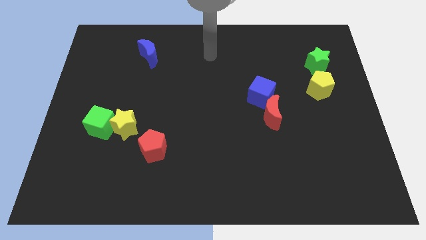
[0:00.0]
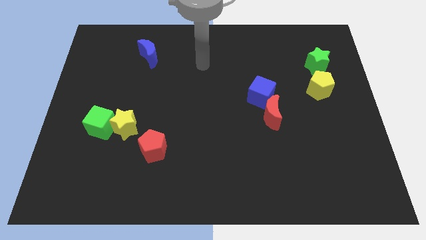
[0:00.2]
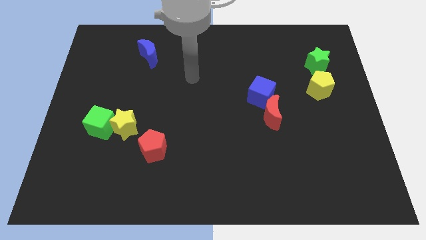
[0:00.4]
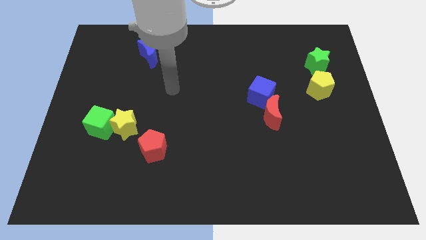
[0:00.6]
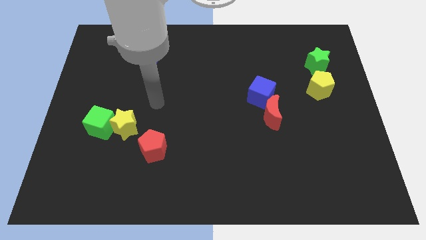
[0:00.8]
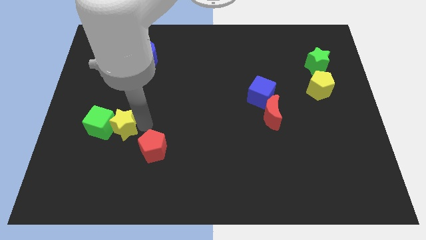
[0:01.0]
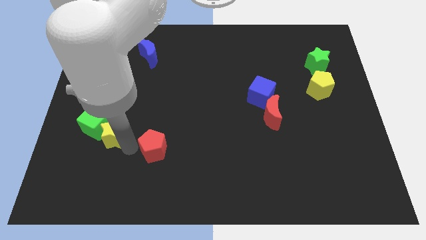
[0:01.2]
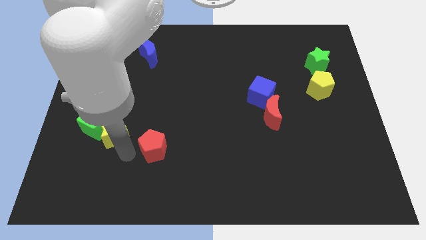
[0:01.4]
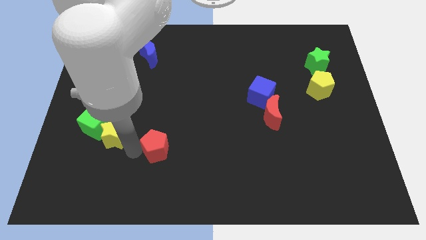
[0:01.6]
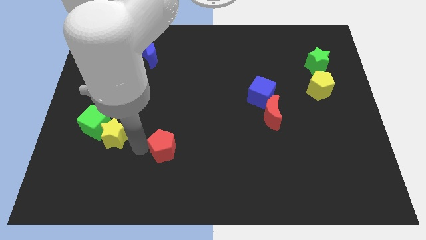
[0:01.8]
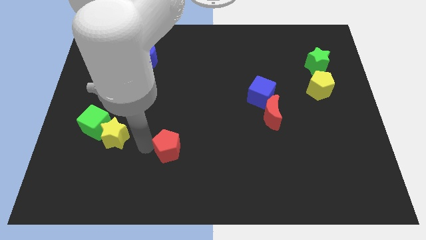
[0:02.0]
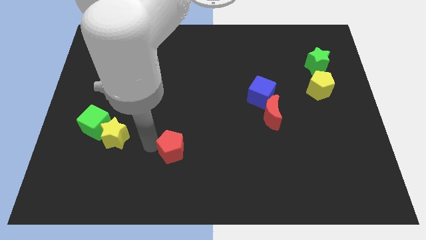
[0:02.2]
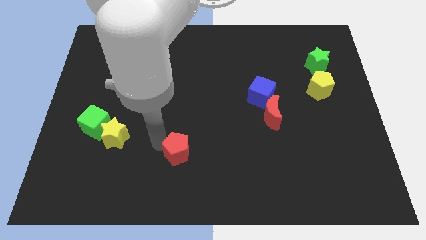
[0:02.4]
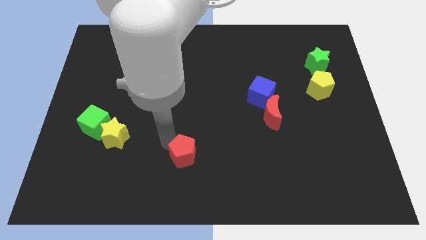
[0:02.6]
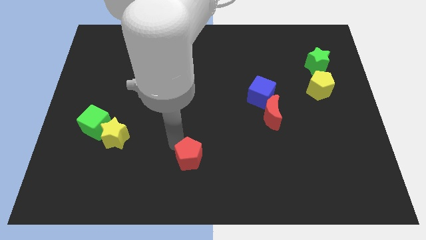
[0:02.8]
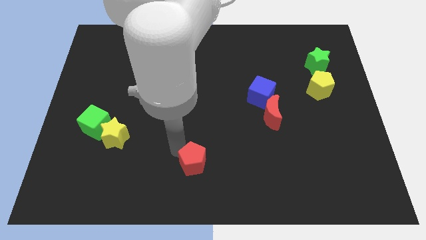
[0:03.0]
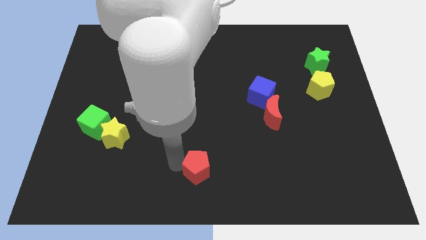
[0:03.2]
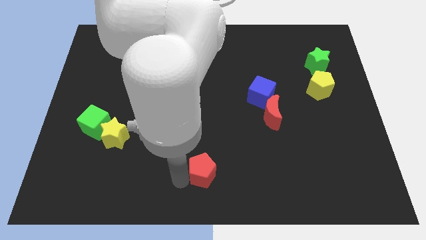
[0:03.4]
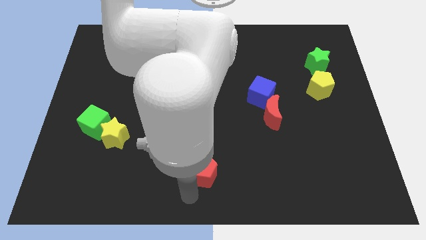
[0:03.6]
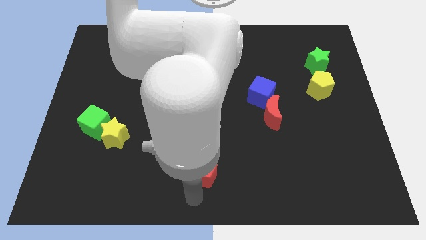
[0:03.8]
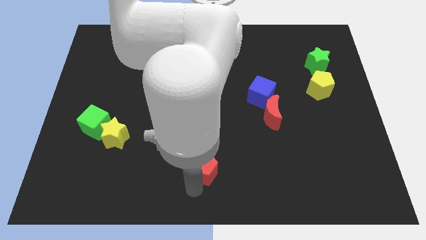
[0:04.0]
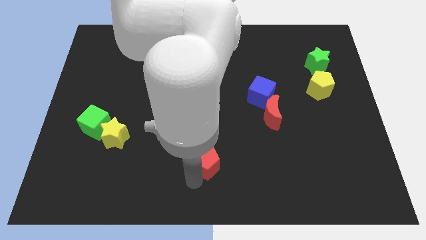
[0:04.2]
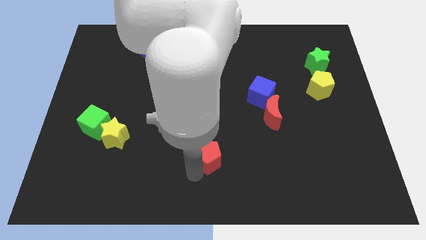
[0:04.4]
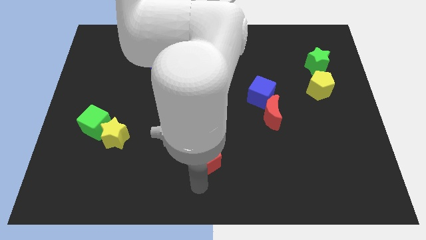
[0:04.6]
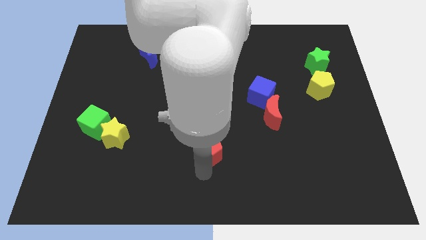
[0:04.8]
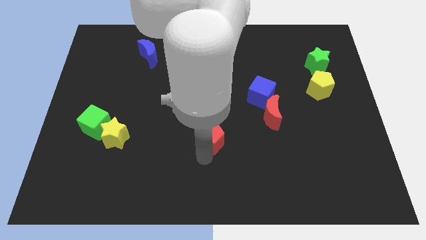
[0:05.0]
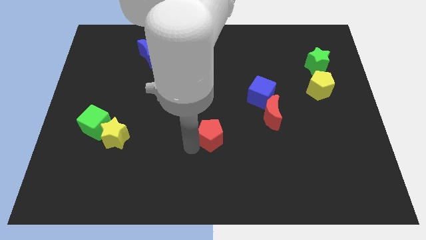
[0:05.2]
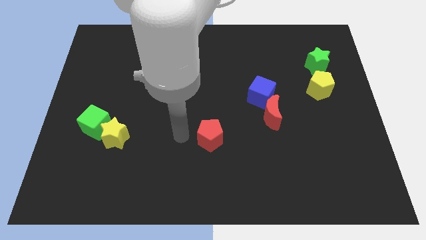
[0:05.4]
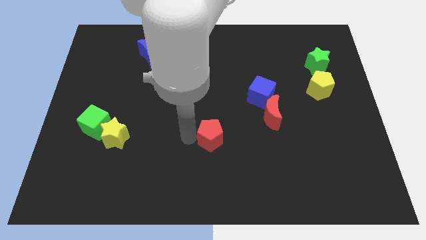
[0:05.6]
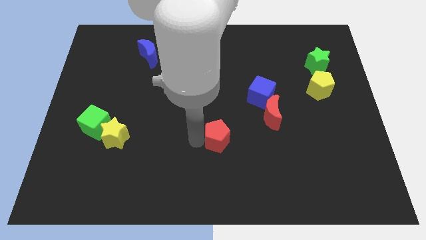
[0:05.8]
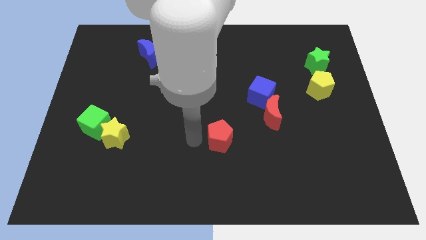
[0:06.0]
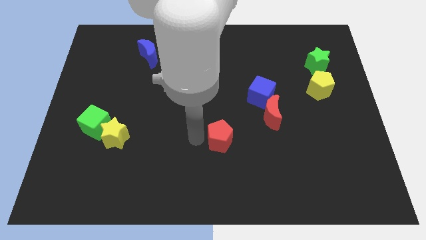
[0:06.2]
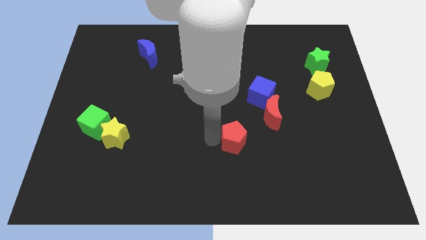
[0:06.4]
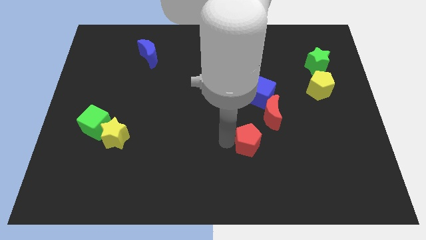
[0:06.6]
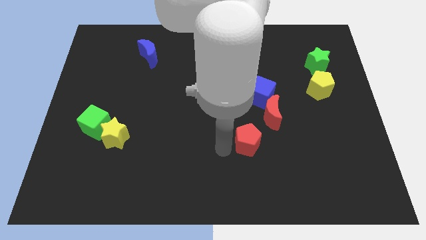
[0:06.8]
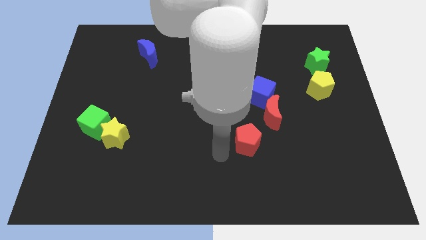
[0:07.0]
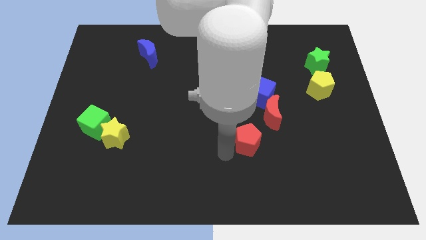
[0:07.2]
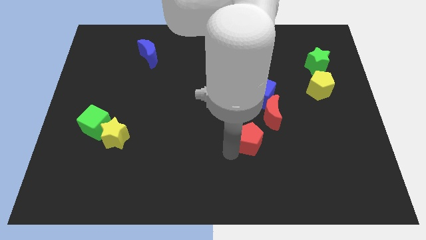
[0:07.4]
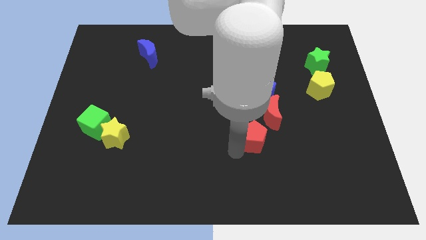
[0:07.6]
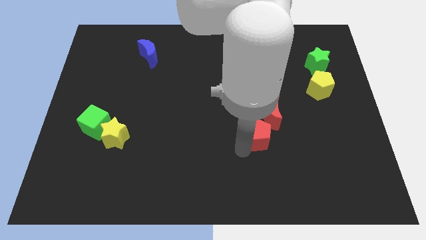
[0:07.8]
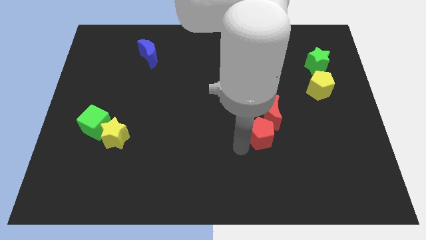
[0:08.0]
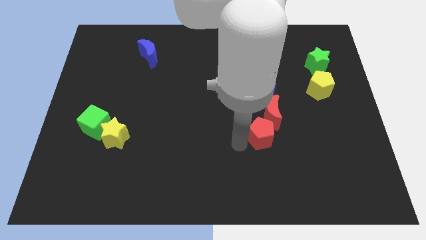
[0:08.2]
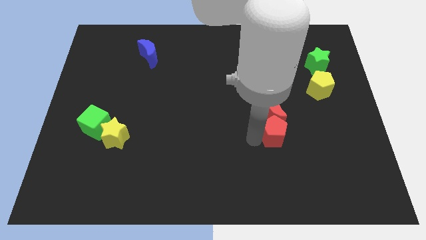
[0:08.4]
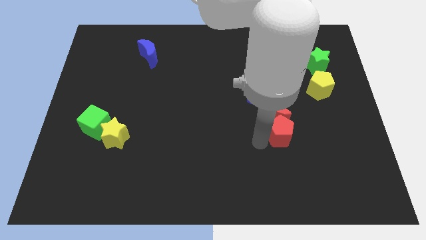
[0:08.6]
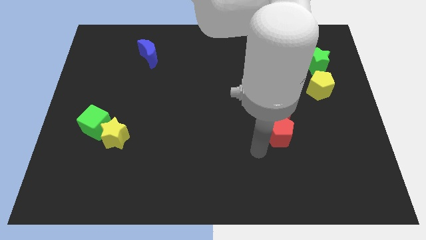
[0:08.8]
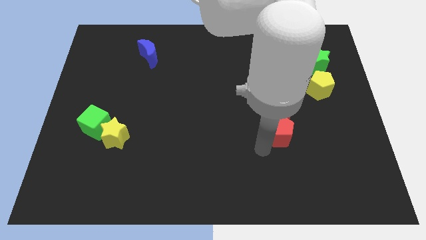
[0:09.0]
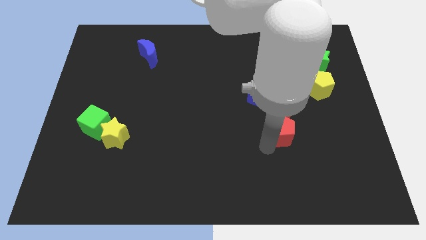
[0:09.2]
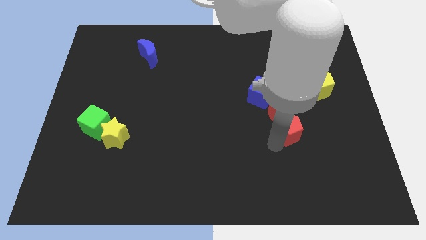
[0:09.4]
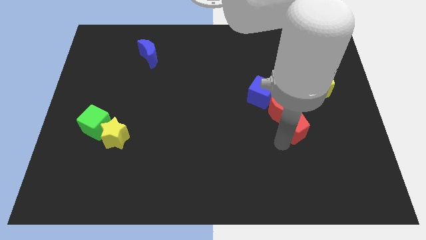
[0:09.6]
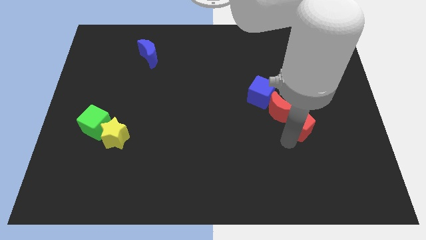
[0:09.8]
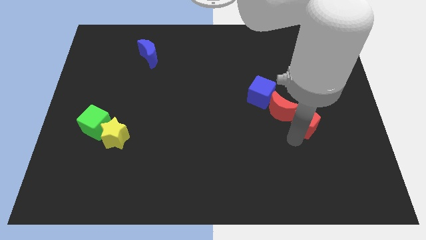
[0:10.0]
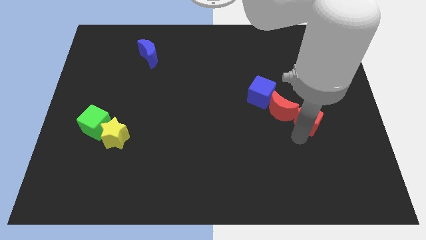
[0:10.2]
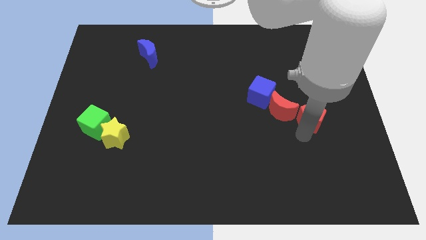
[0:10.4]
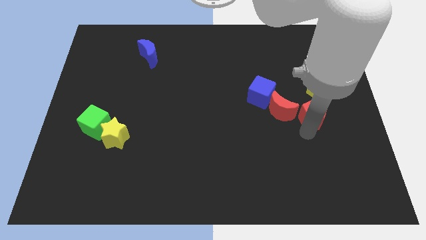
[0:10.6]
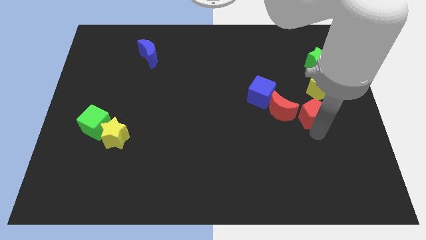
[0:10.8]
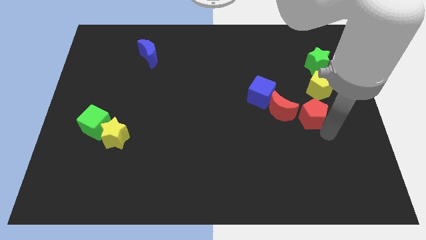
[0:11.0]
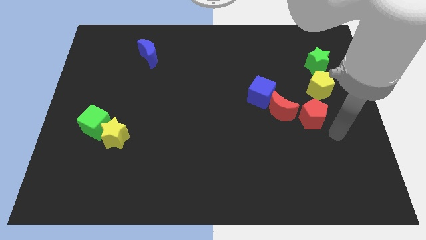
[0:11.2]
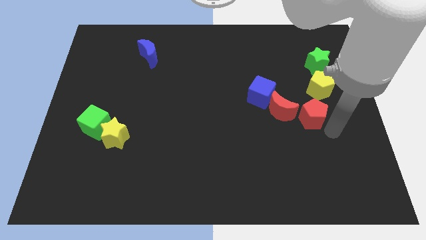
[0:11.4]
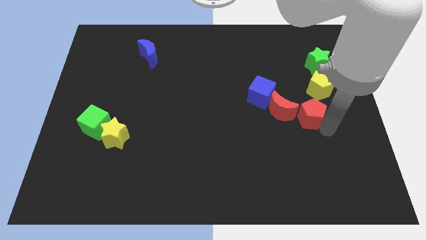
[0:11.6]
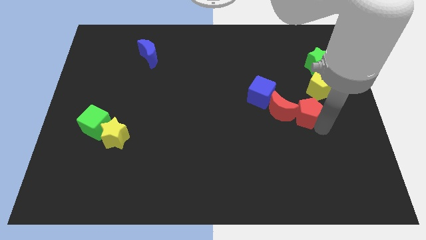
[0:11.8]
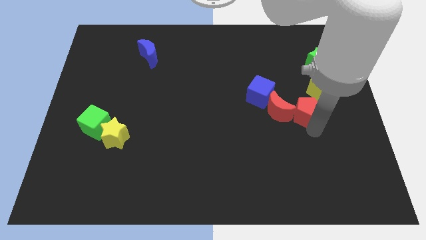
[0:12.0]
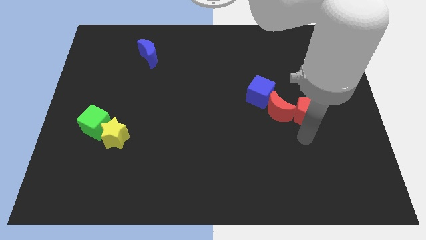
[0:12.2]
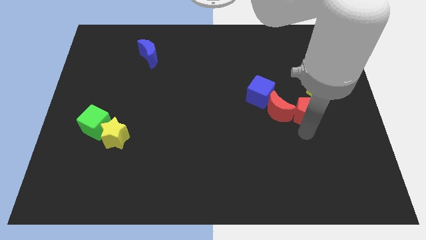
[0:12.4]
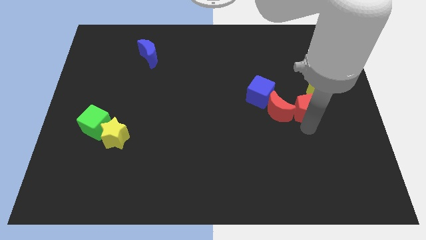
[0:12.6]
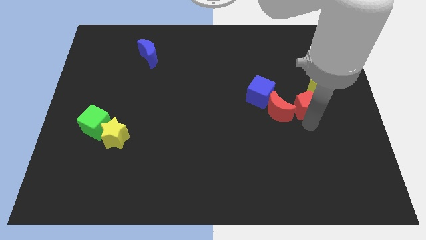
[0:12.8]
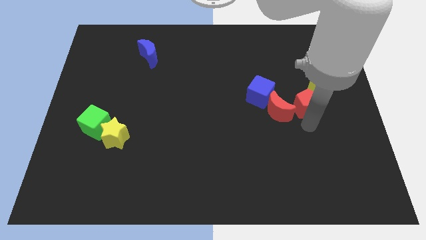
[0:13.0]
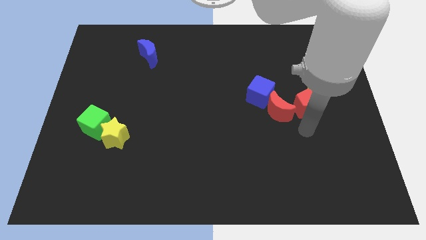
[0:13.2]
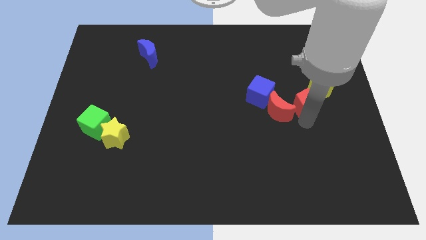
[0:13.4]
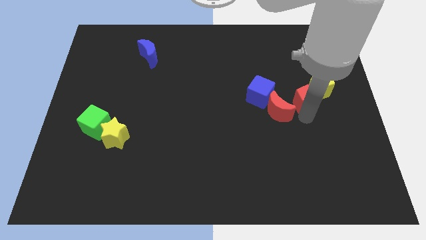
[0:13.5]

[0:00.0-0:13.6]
slide the red pentagon close to the yellow pentagon
